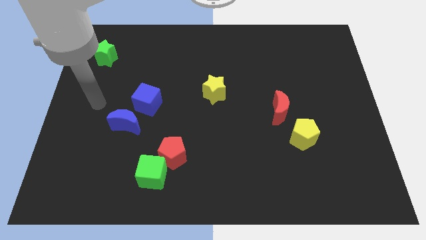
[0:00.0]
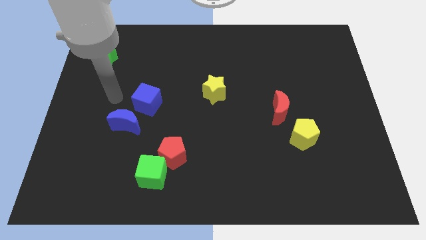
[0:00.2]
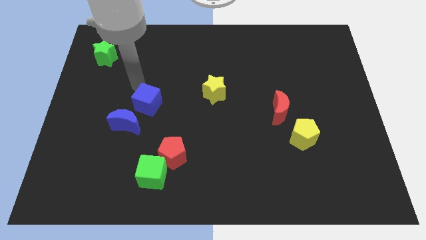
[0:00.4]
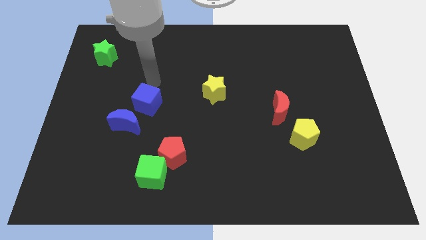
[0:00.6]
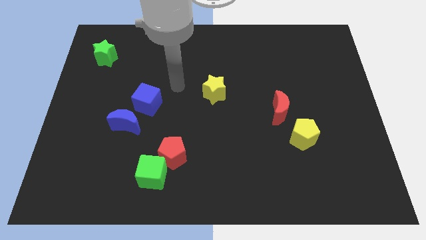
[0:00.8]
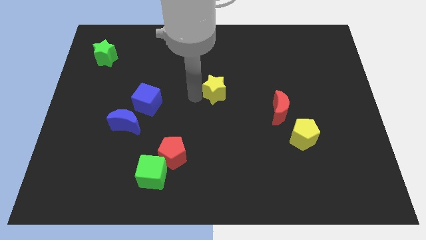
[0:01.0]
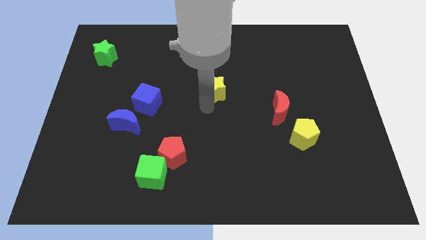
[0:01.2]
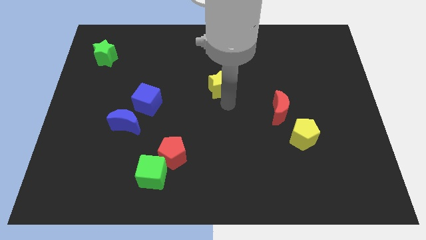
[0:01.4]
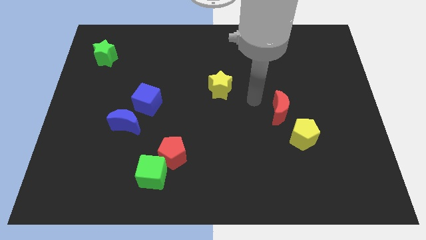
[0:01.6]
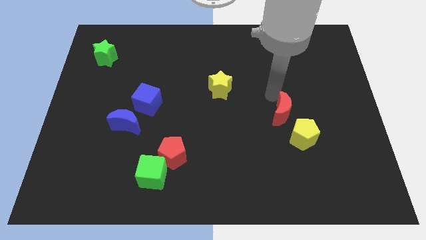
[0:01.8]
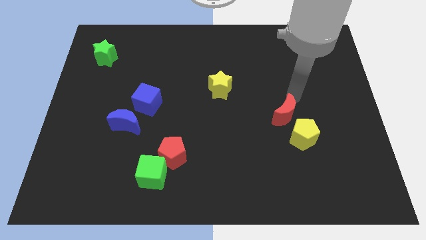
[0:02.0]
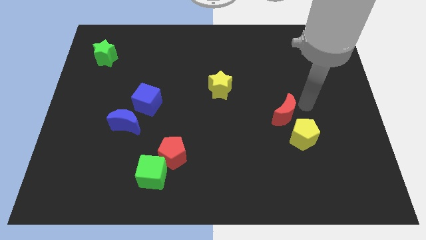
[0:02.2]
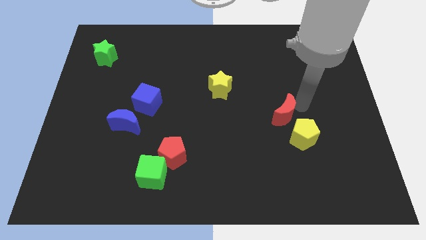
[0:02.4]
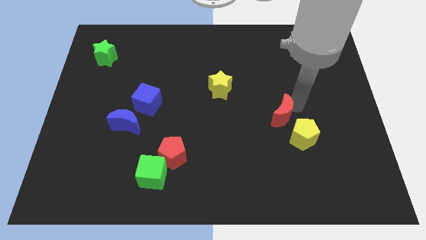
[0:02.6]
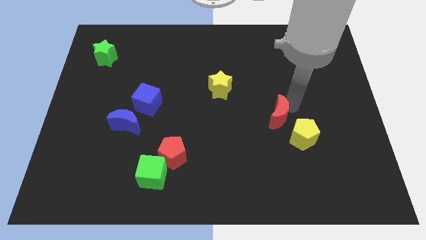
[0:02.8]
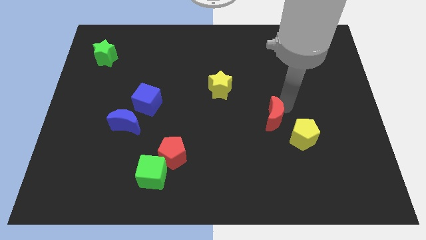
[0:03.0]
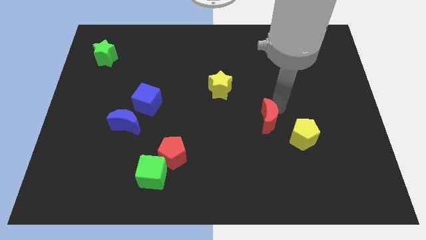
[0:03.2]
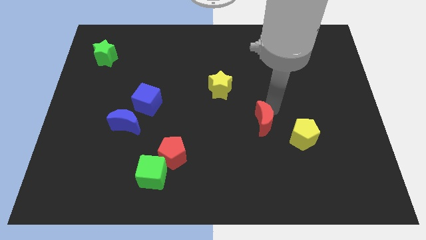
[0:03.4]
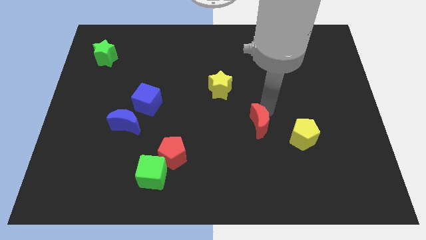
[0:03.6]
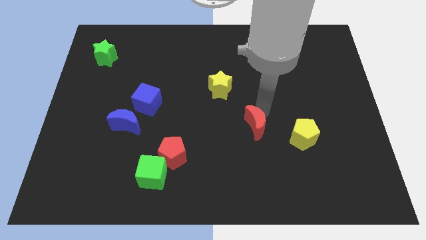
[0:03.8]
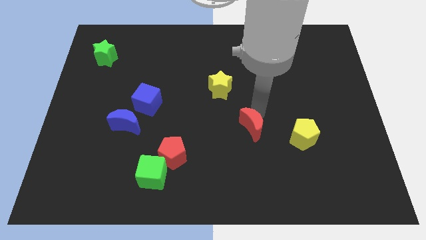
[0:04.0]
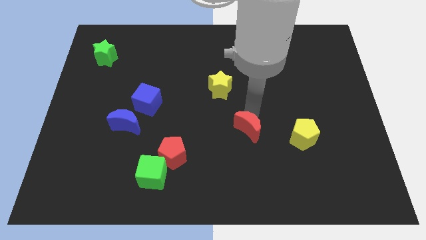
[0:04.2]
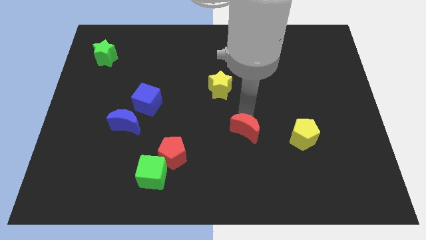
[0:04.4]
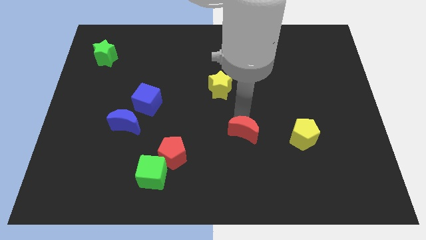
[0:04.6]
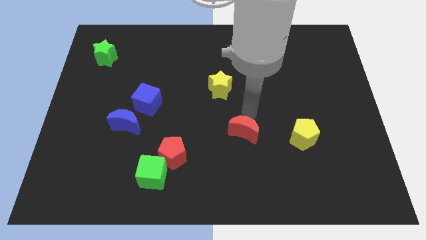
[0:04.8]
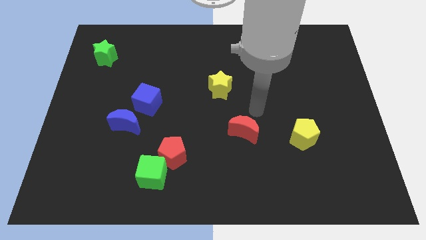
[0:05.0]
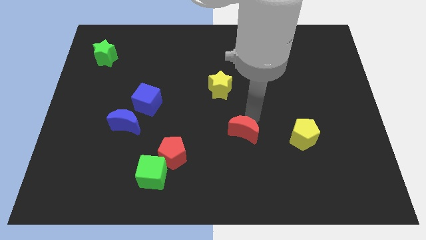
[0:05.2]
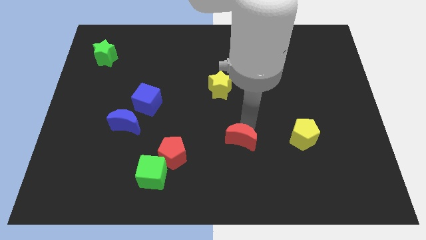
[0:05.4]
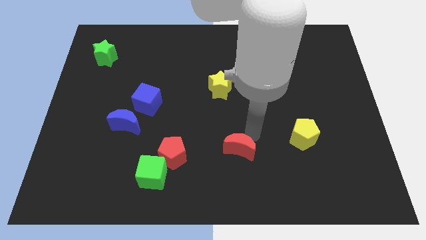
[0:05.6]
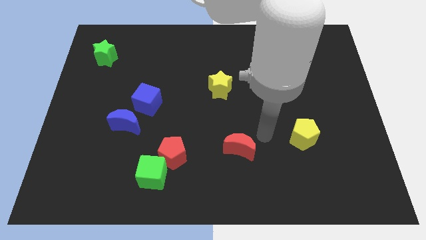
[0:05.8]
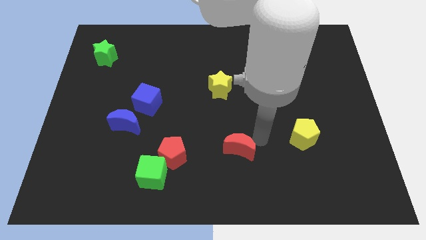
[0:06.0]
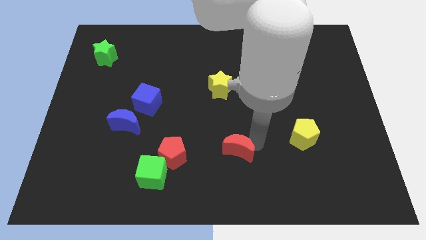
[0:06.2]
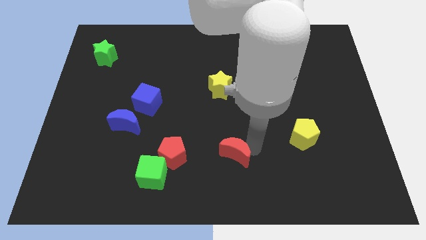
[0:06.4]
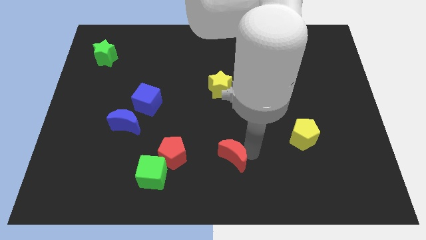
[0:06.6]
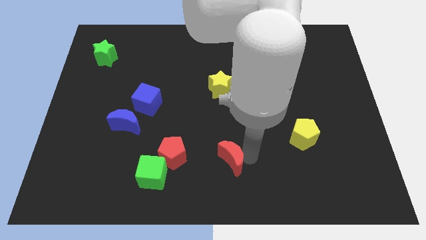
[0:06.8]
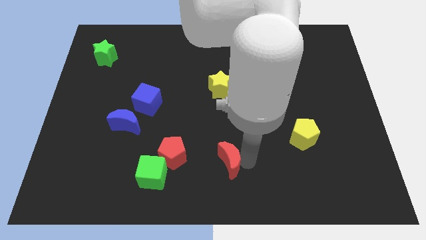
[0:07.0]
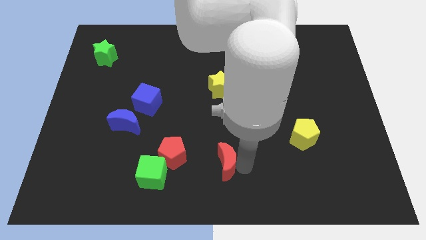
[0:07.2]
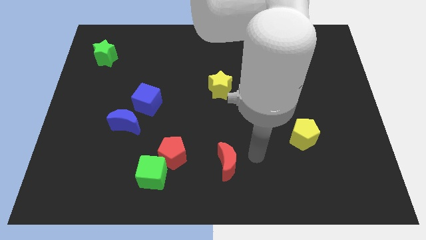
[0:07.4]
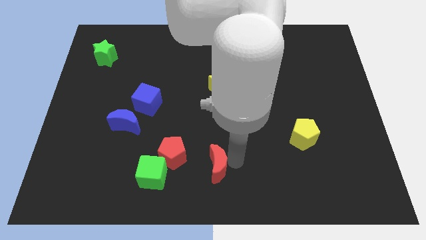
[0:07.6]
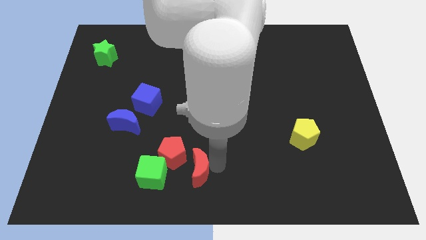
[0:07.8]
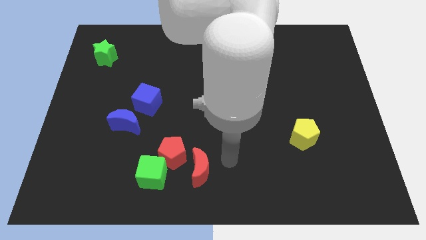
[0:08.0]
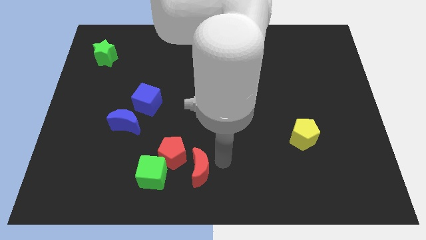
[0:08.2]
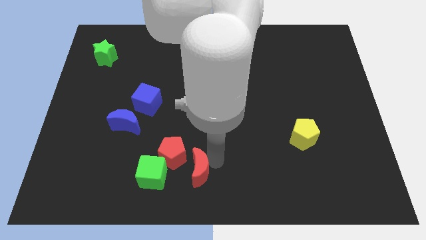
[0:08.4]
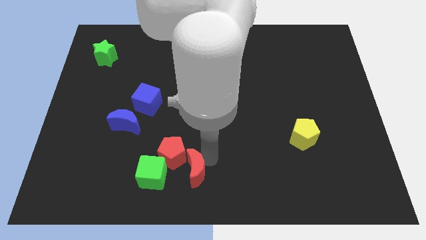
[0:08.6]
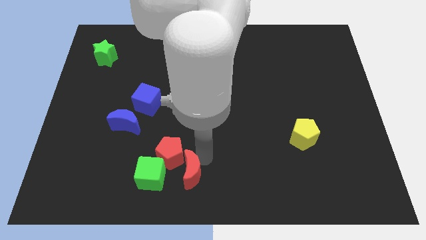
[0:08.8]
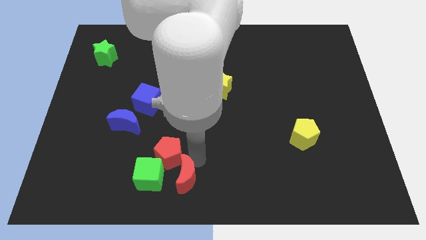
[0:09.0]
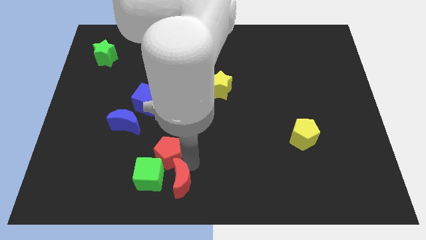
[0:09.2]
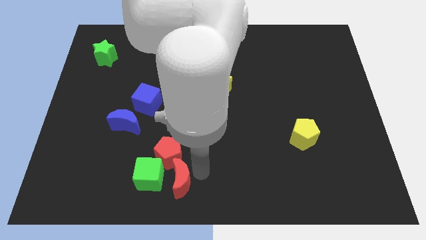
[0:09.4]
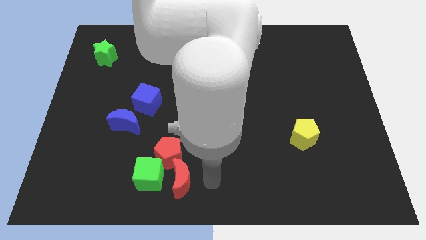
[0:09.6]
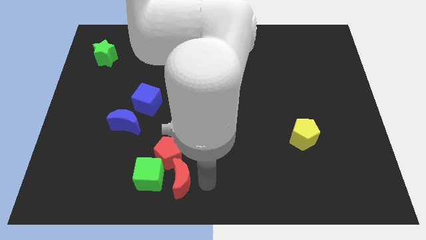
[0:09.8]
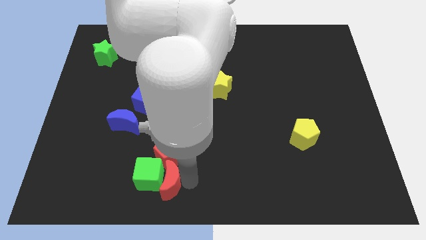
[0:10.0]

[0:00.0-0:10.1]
push the red moon to the green cube

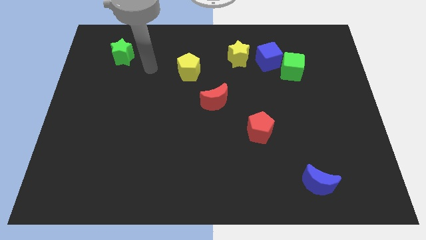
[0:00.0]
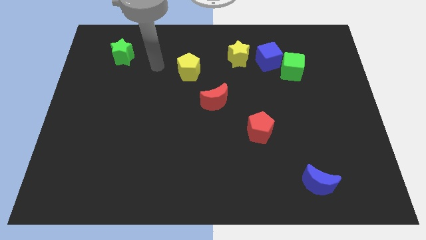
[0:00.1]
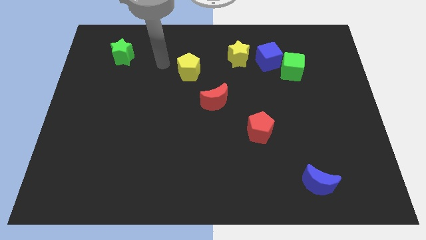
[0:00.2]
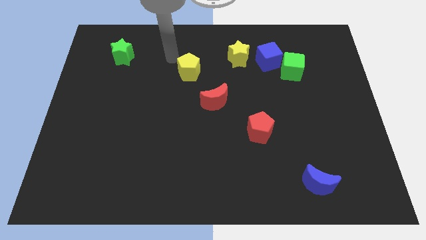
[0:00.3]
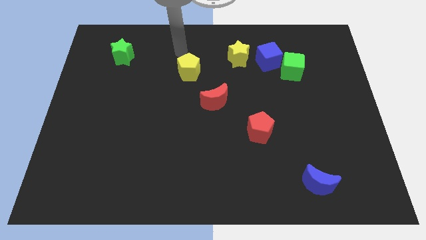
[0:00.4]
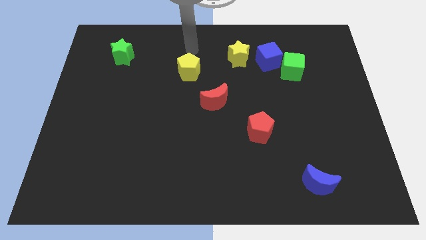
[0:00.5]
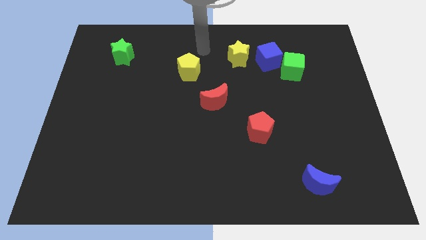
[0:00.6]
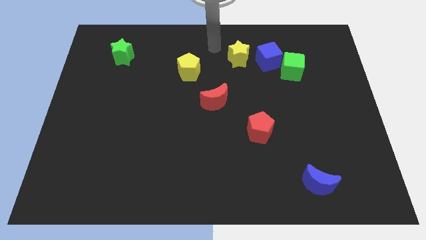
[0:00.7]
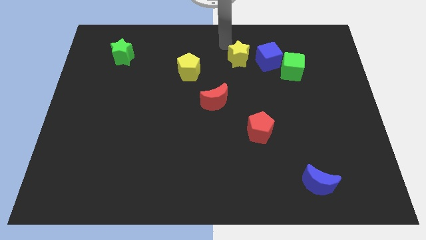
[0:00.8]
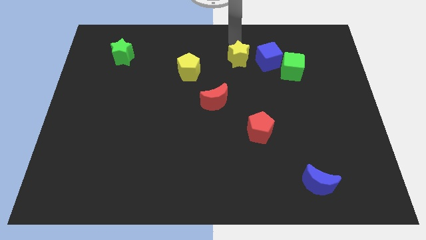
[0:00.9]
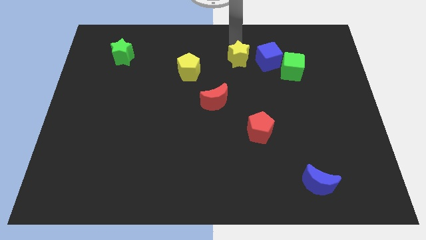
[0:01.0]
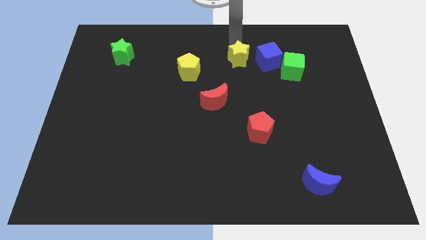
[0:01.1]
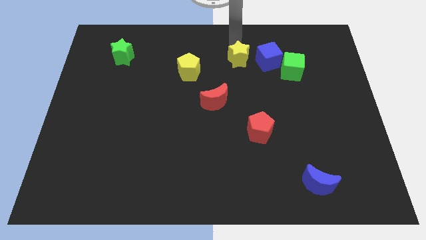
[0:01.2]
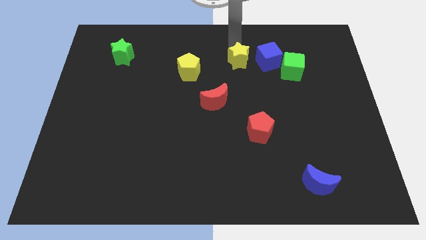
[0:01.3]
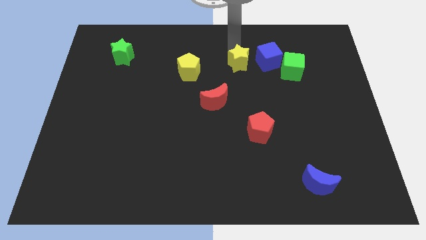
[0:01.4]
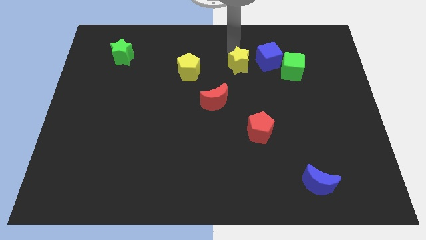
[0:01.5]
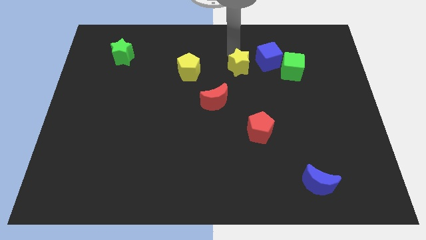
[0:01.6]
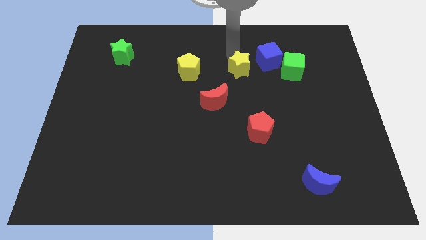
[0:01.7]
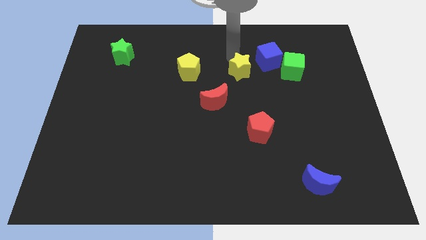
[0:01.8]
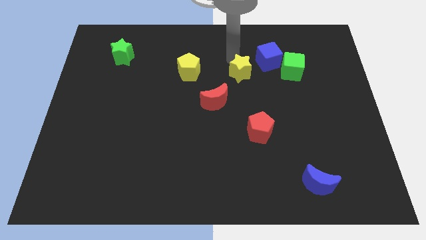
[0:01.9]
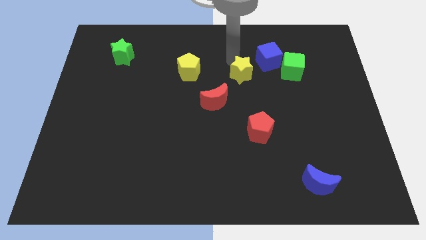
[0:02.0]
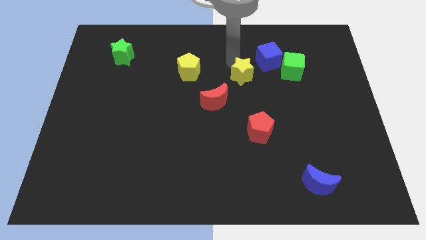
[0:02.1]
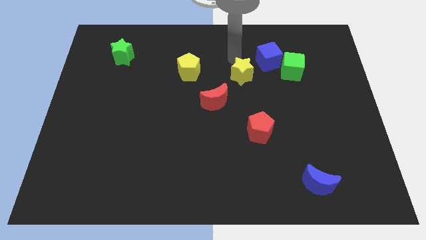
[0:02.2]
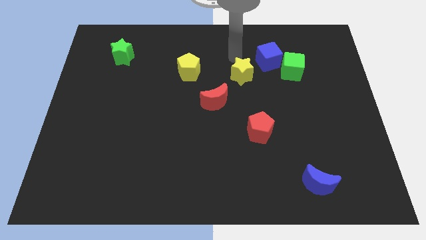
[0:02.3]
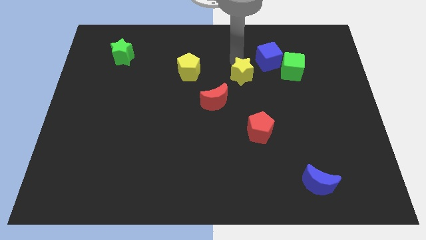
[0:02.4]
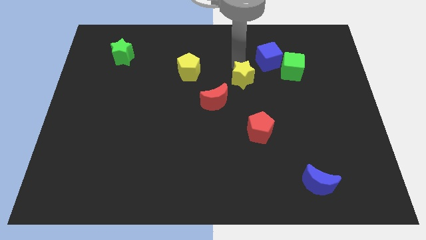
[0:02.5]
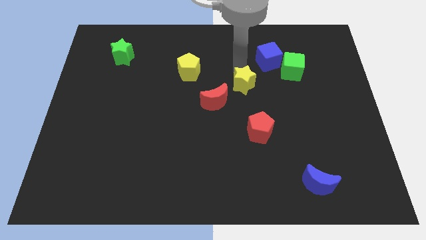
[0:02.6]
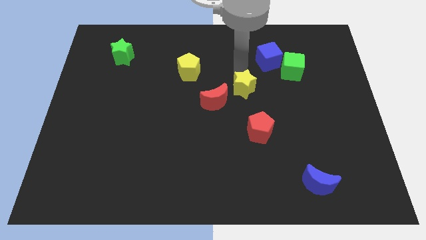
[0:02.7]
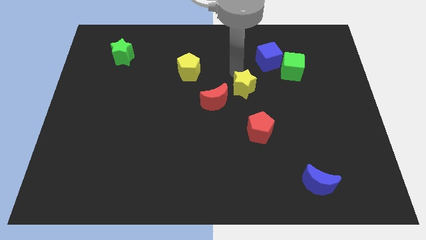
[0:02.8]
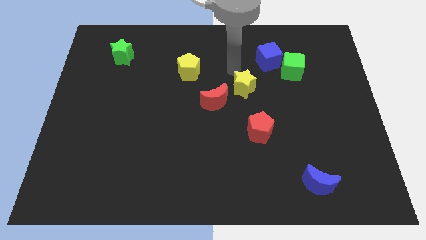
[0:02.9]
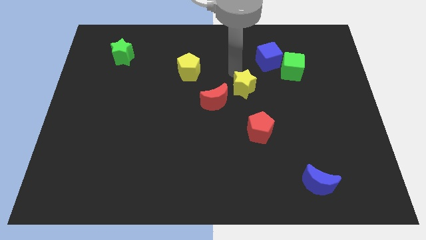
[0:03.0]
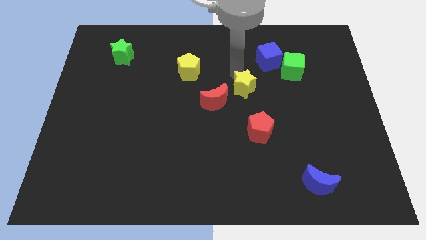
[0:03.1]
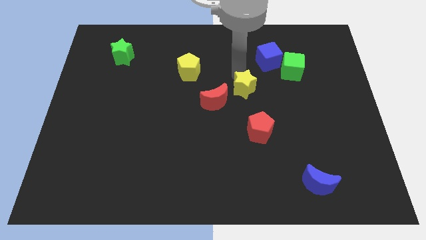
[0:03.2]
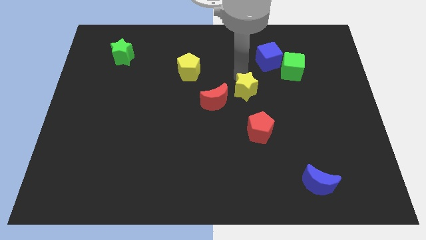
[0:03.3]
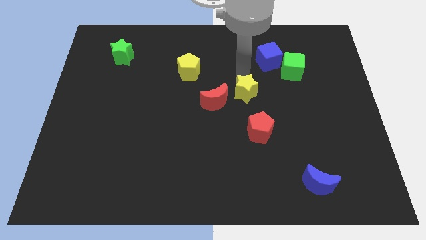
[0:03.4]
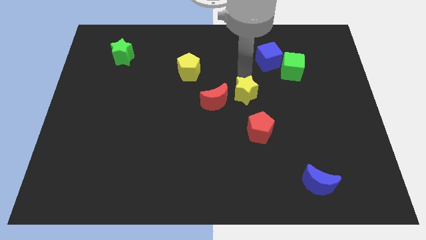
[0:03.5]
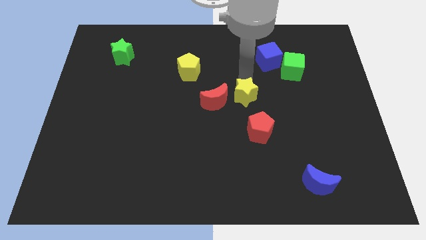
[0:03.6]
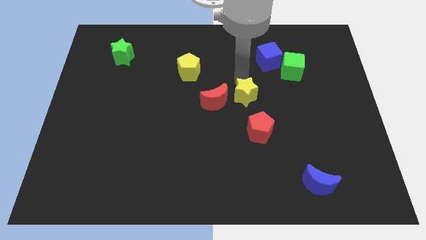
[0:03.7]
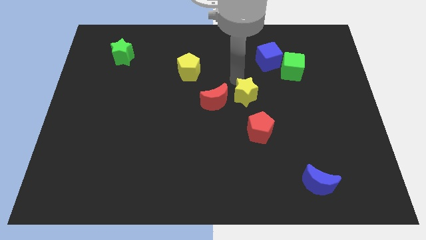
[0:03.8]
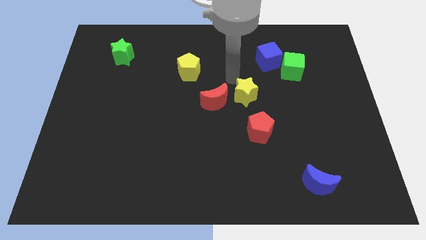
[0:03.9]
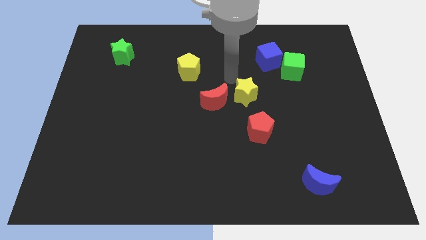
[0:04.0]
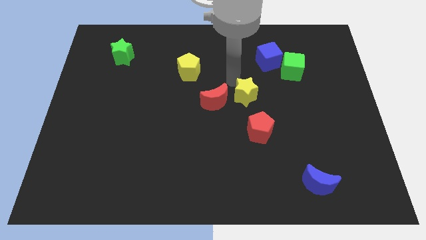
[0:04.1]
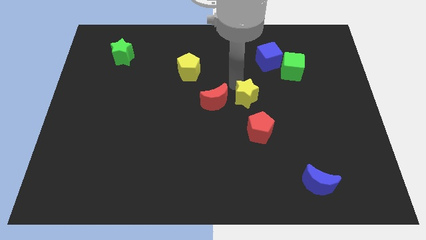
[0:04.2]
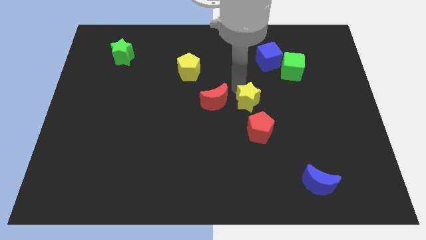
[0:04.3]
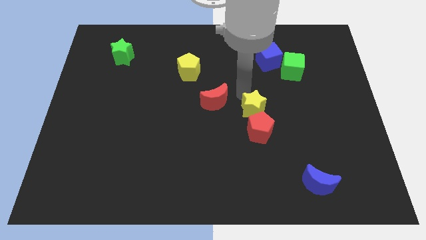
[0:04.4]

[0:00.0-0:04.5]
push the yellow star next to the red pentagon
